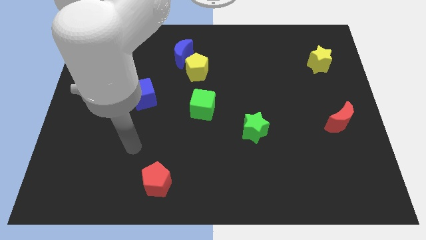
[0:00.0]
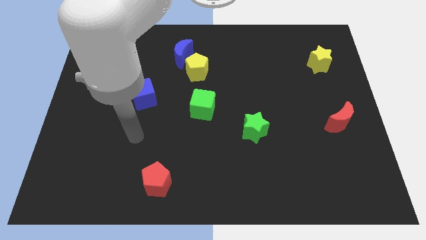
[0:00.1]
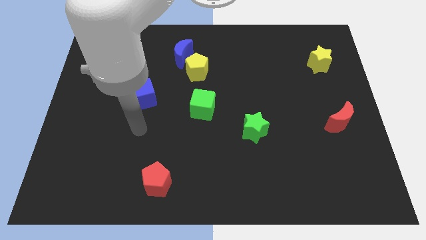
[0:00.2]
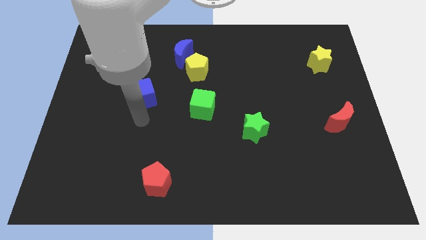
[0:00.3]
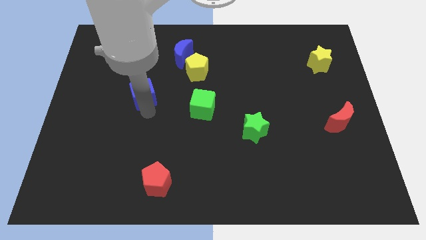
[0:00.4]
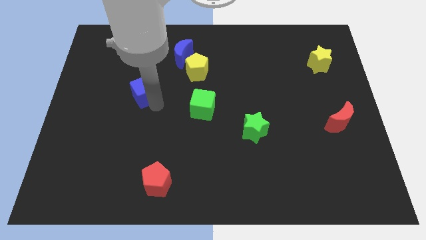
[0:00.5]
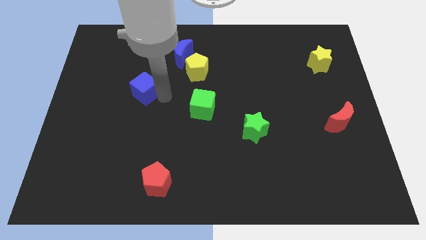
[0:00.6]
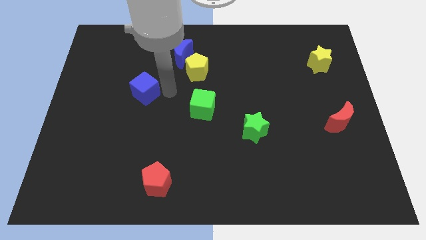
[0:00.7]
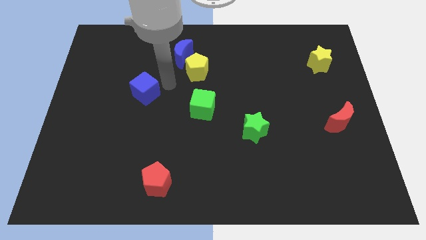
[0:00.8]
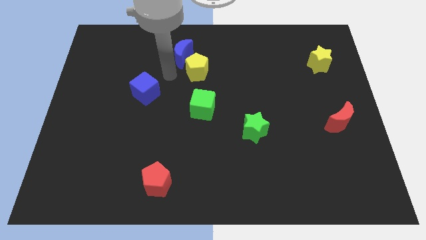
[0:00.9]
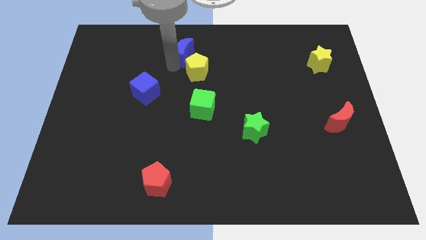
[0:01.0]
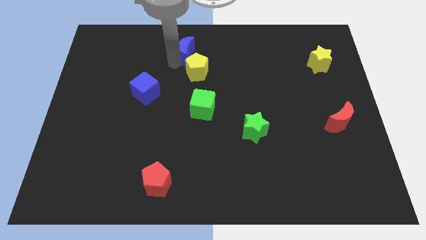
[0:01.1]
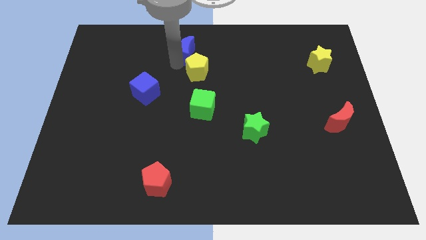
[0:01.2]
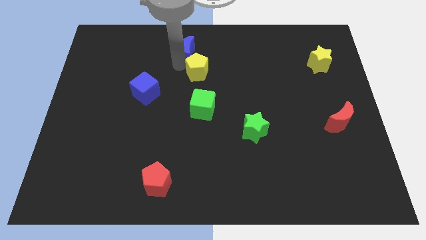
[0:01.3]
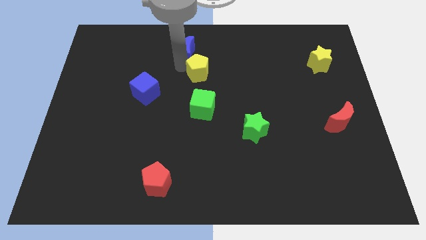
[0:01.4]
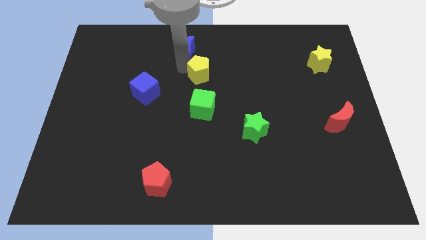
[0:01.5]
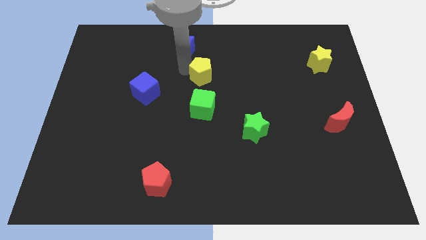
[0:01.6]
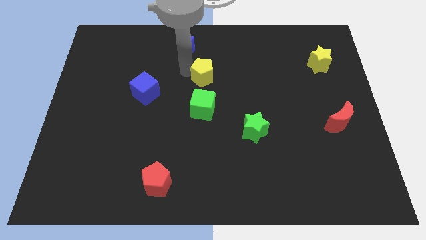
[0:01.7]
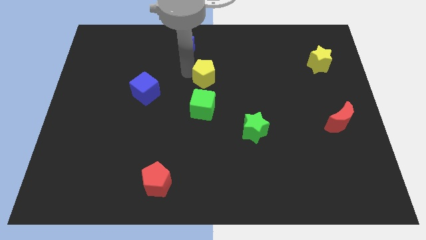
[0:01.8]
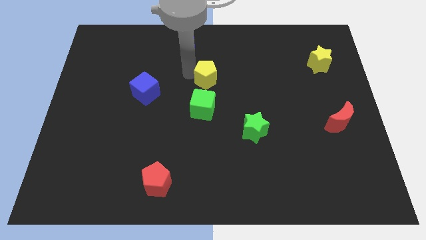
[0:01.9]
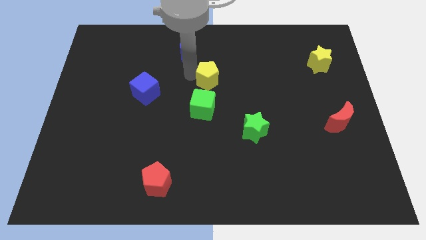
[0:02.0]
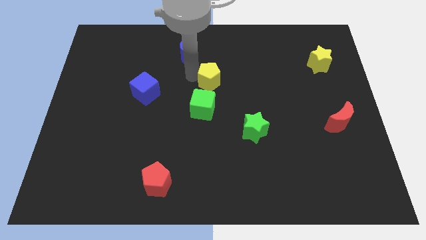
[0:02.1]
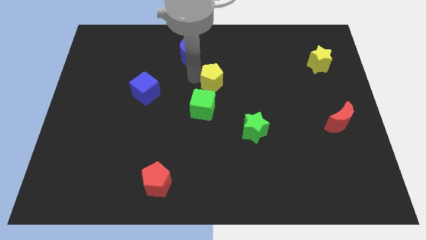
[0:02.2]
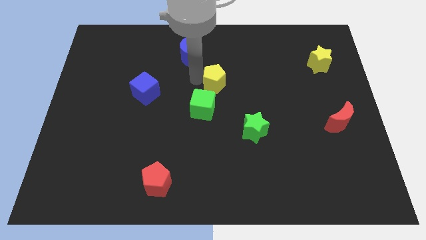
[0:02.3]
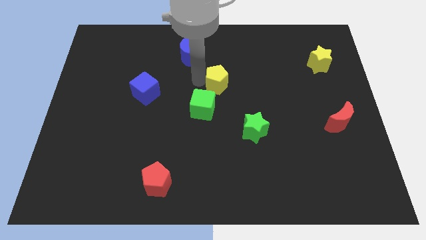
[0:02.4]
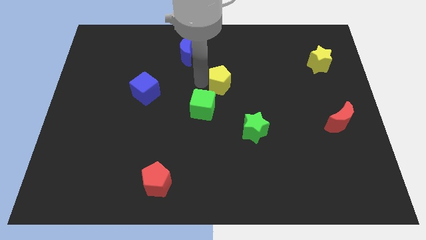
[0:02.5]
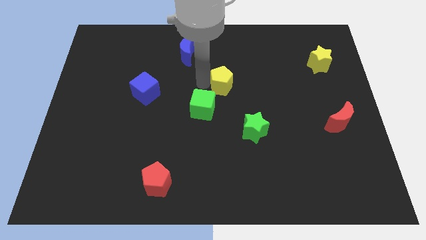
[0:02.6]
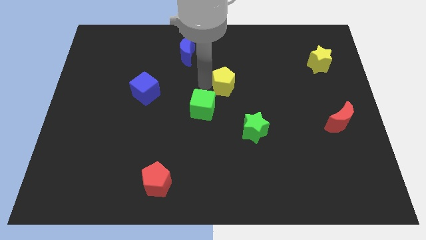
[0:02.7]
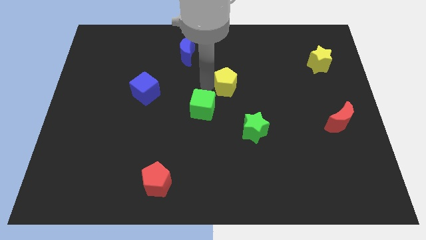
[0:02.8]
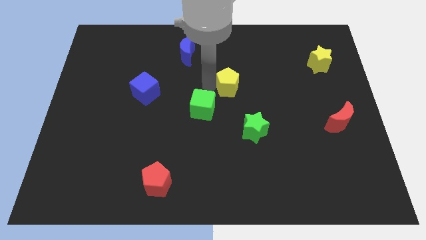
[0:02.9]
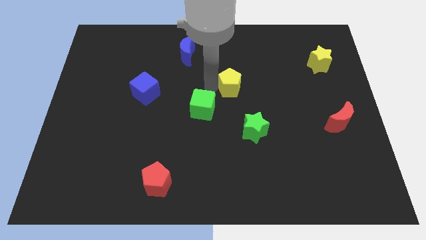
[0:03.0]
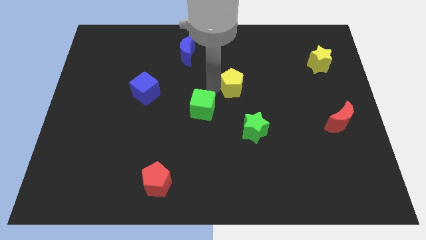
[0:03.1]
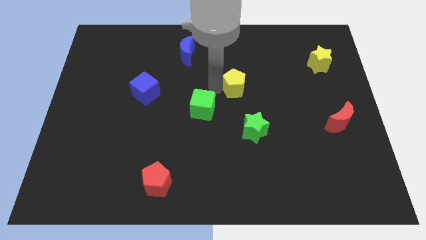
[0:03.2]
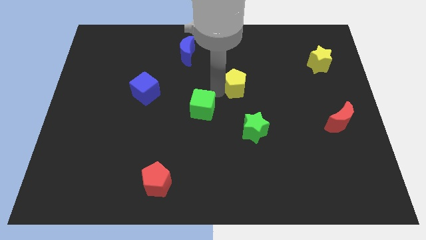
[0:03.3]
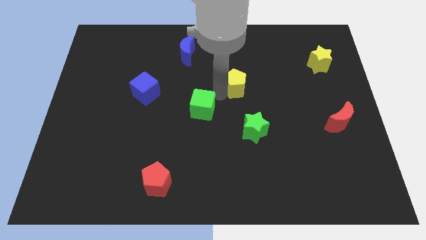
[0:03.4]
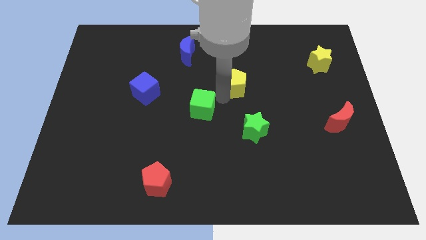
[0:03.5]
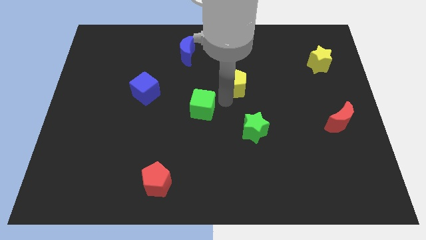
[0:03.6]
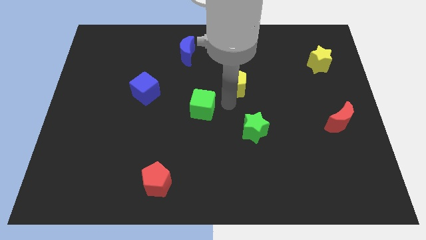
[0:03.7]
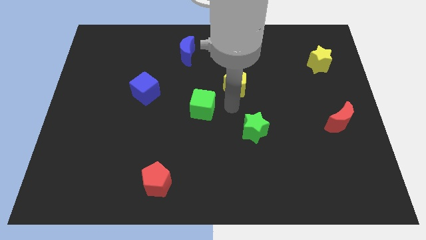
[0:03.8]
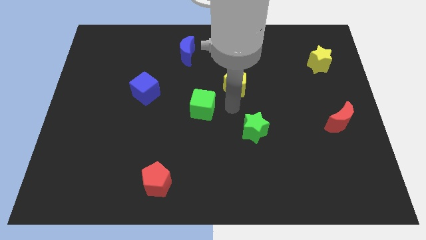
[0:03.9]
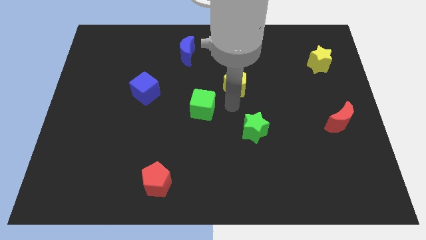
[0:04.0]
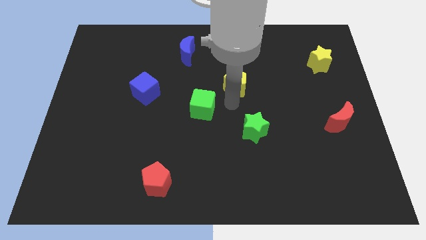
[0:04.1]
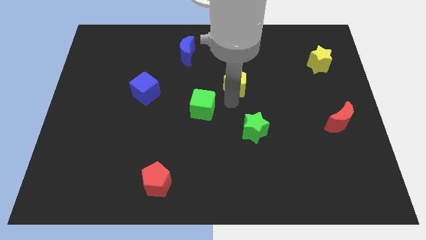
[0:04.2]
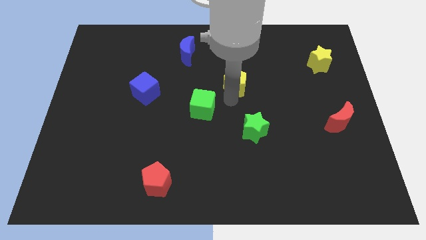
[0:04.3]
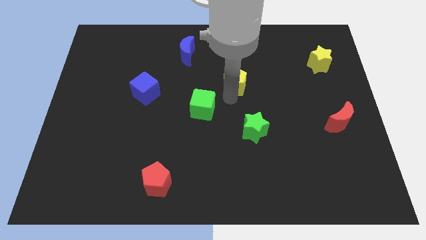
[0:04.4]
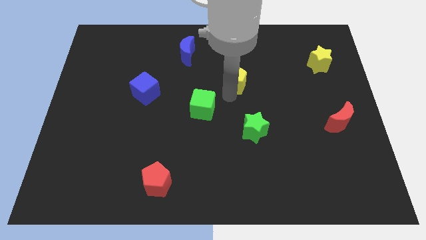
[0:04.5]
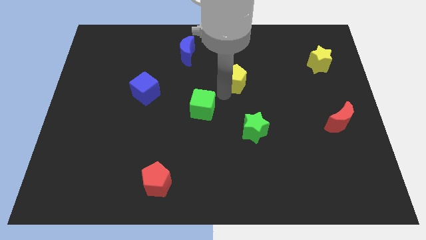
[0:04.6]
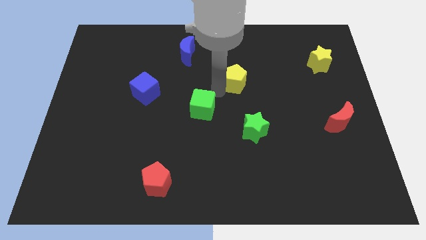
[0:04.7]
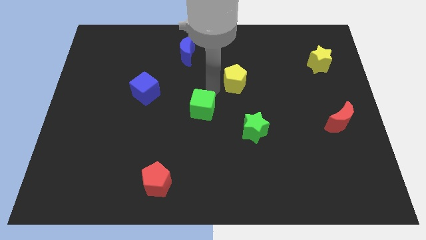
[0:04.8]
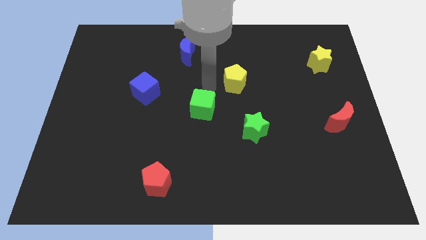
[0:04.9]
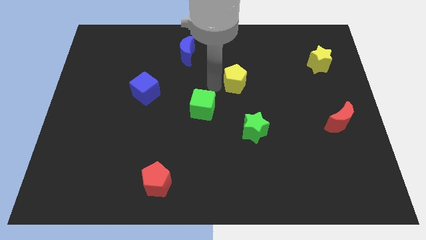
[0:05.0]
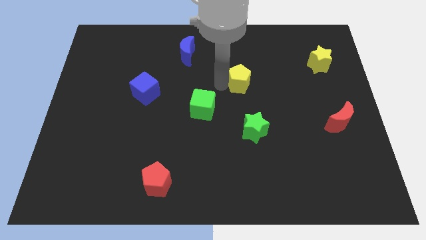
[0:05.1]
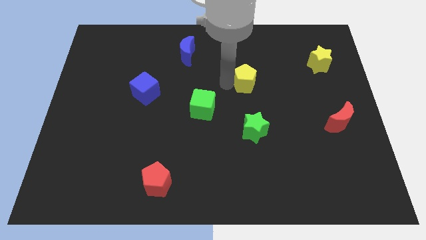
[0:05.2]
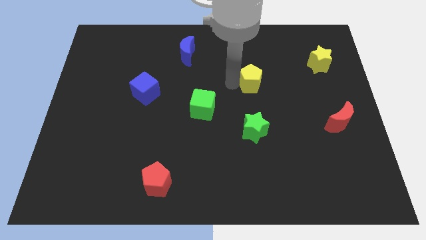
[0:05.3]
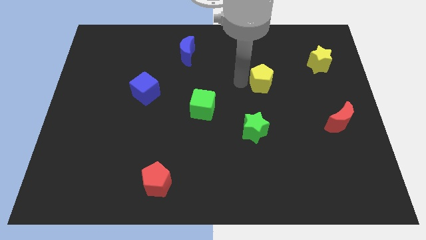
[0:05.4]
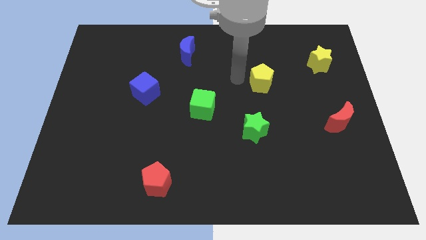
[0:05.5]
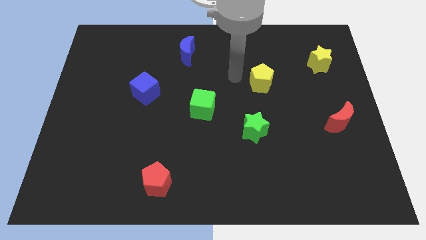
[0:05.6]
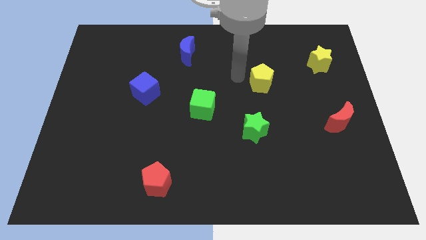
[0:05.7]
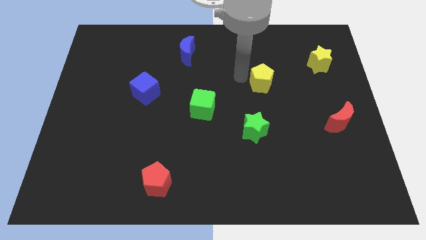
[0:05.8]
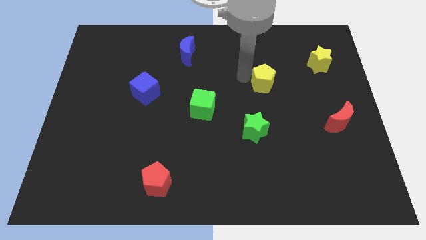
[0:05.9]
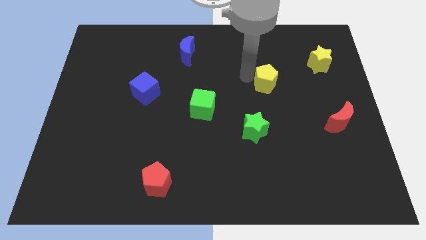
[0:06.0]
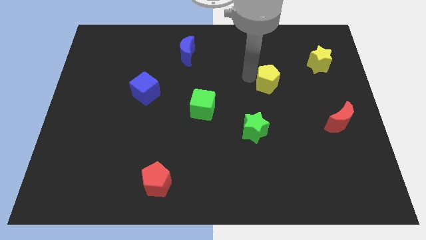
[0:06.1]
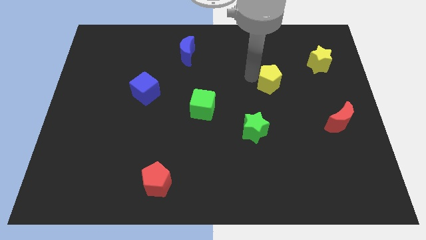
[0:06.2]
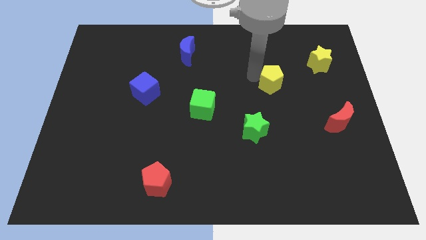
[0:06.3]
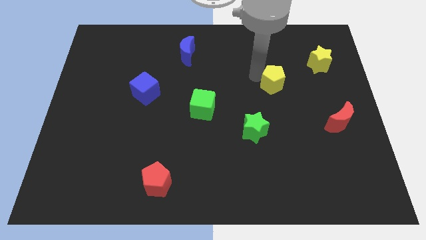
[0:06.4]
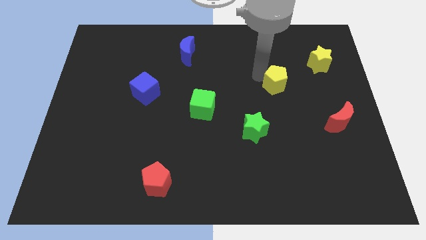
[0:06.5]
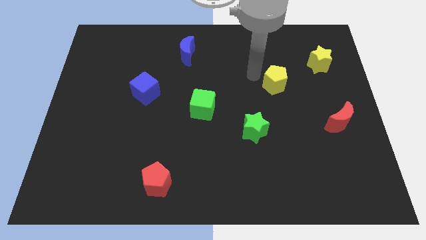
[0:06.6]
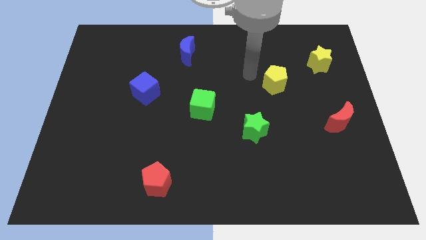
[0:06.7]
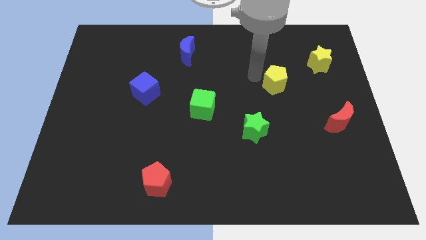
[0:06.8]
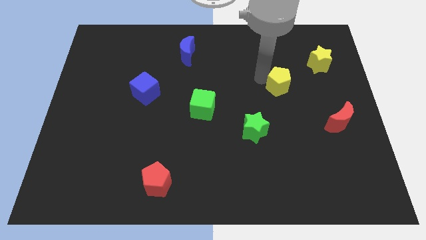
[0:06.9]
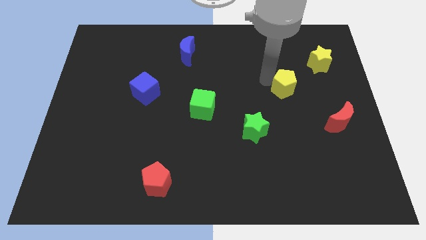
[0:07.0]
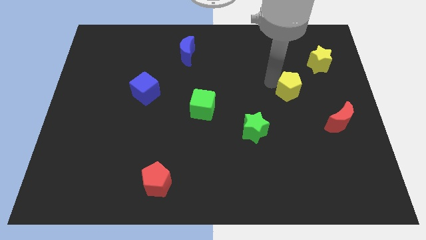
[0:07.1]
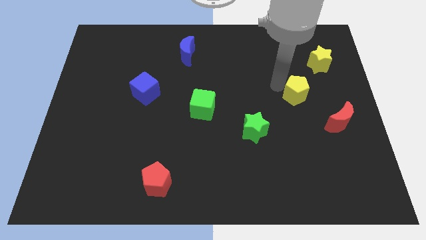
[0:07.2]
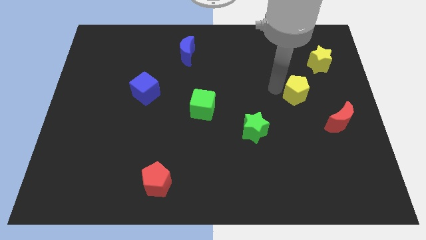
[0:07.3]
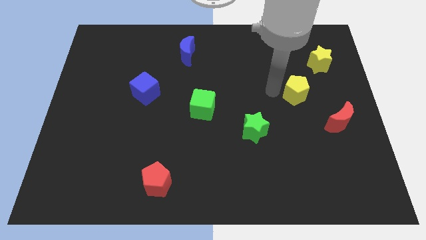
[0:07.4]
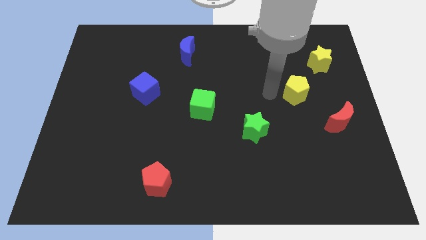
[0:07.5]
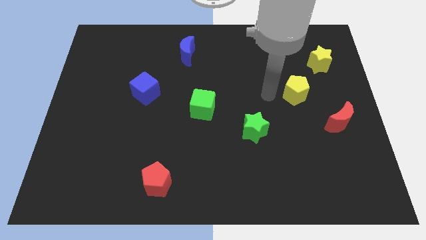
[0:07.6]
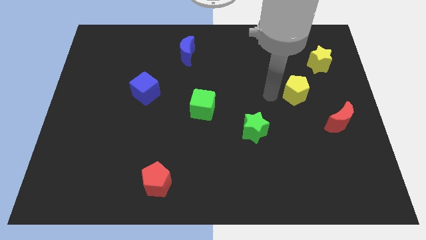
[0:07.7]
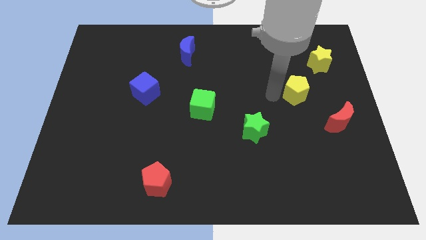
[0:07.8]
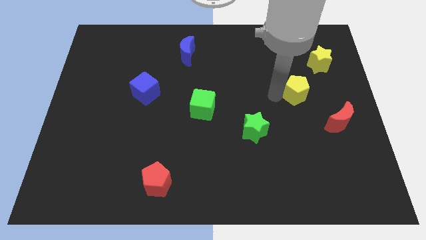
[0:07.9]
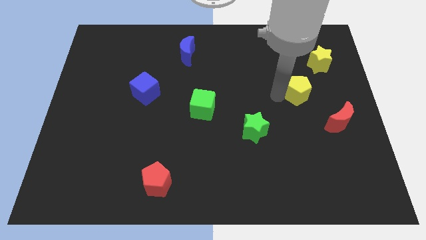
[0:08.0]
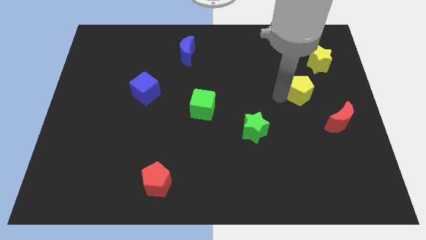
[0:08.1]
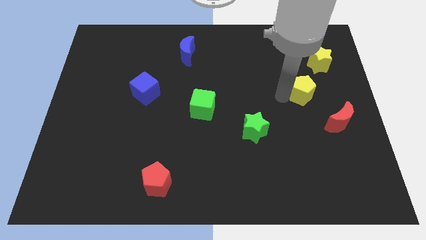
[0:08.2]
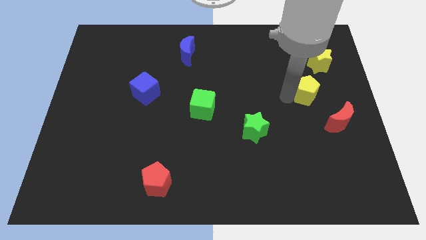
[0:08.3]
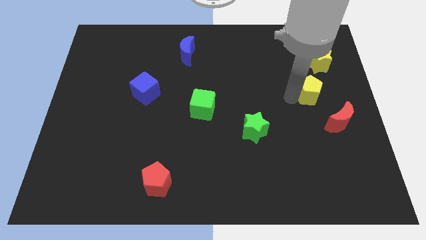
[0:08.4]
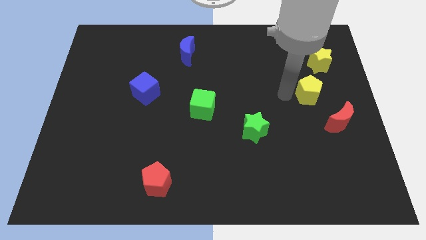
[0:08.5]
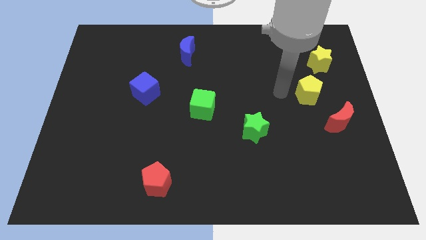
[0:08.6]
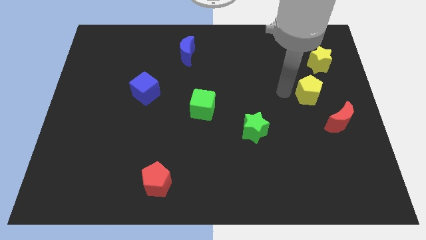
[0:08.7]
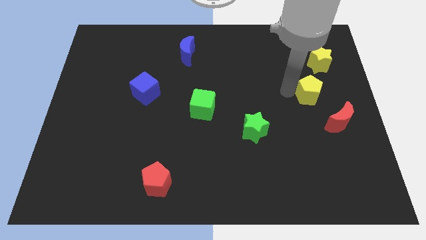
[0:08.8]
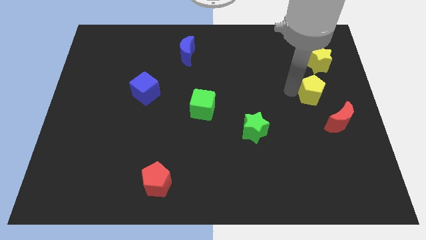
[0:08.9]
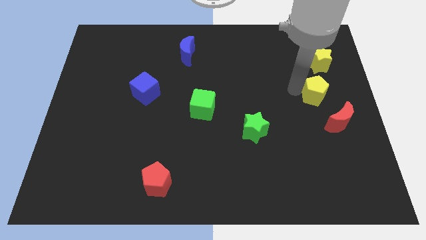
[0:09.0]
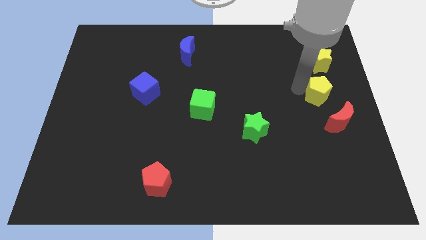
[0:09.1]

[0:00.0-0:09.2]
move the yellow pentagon to the right side
